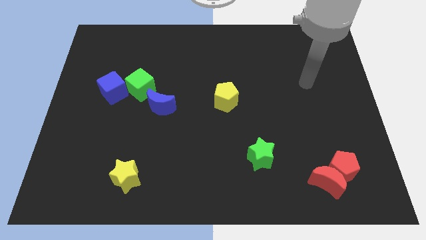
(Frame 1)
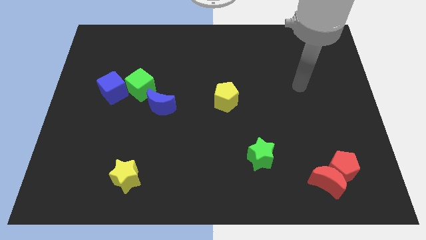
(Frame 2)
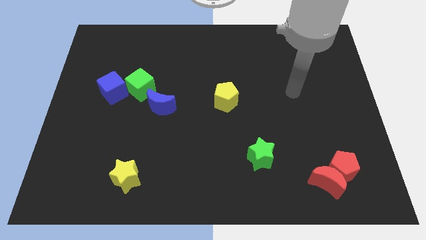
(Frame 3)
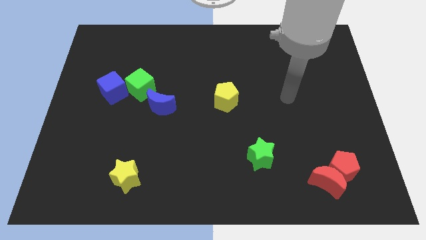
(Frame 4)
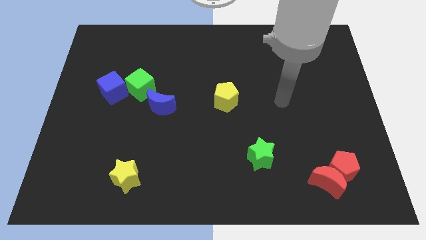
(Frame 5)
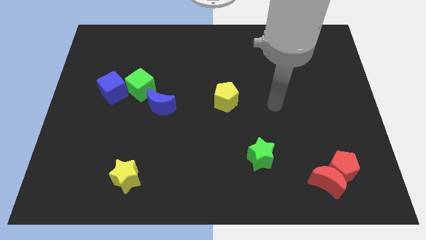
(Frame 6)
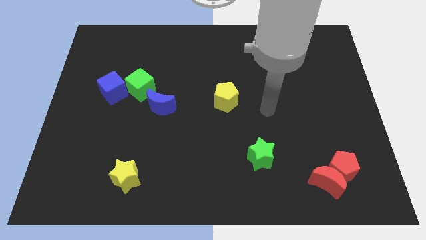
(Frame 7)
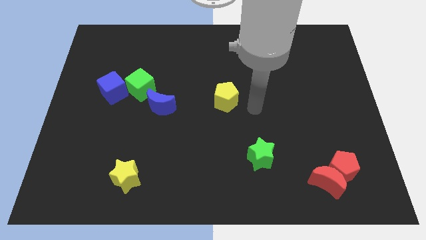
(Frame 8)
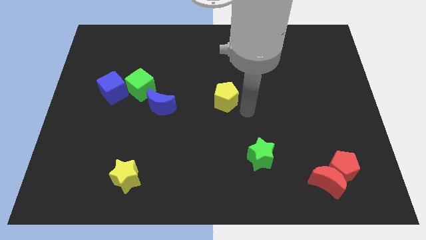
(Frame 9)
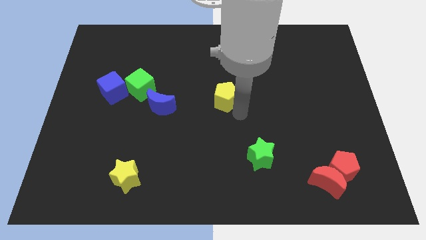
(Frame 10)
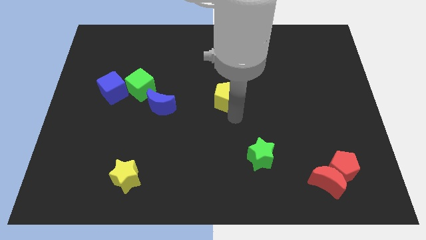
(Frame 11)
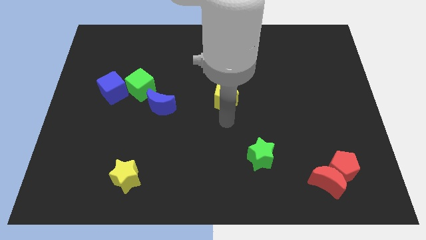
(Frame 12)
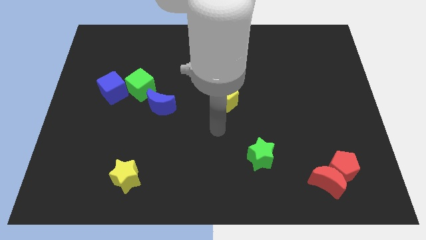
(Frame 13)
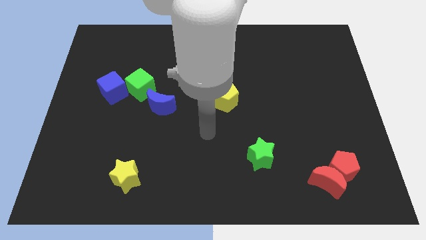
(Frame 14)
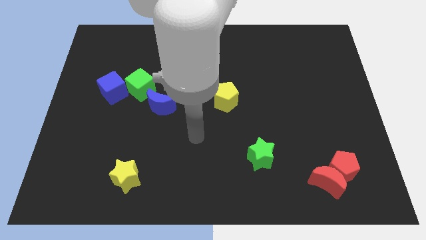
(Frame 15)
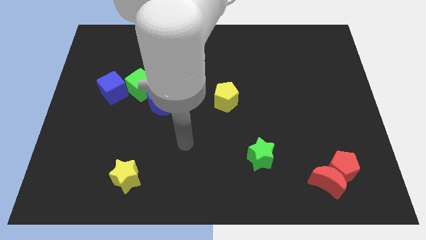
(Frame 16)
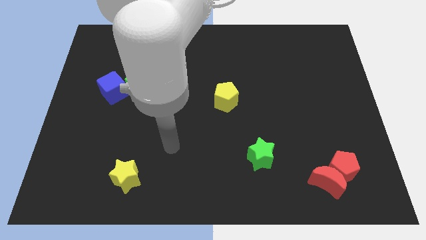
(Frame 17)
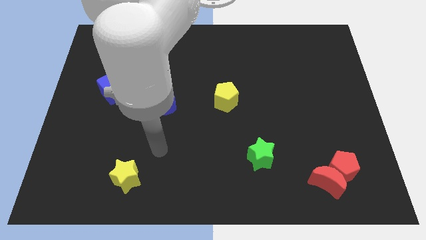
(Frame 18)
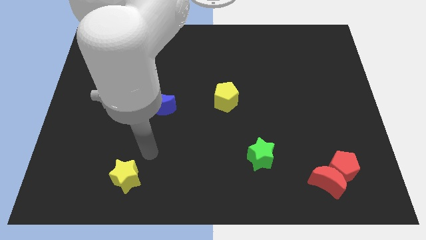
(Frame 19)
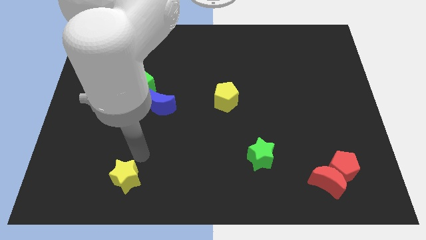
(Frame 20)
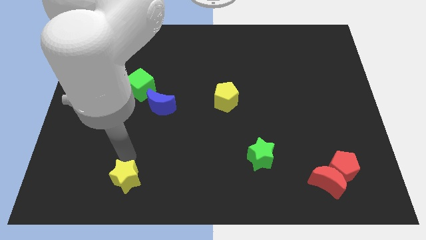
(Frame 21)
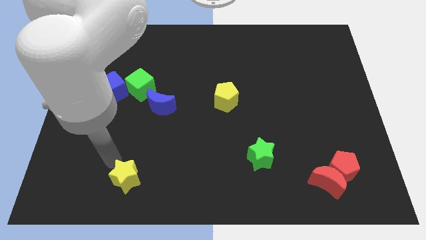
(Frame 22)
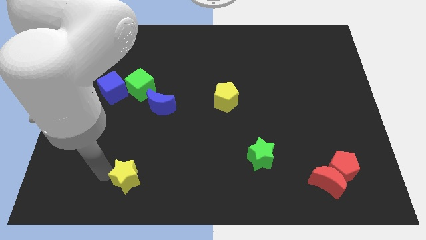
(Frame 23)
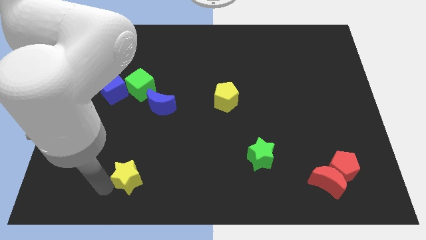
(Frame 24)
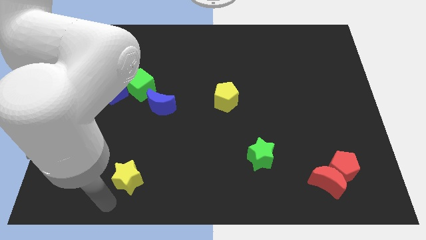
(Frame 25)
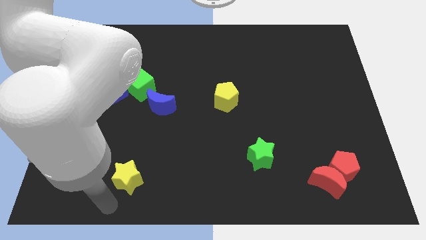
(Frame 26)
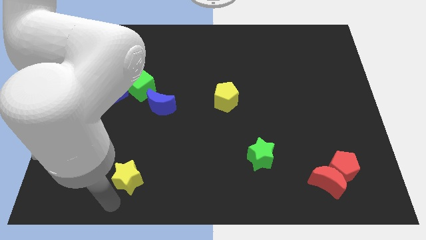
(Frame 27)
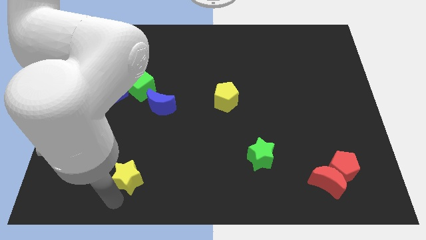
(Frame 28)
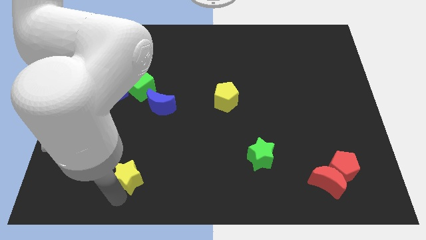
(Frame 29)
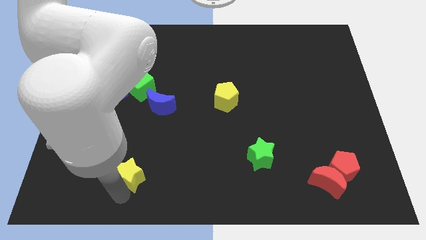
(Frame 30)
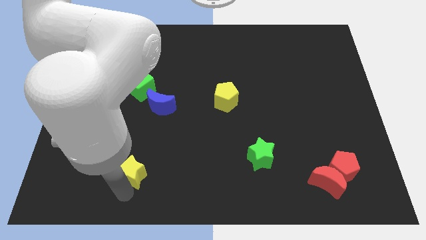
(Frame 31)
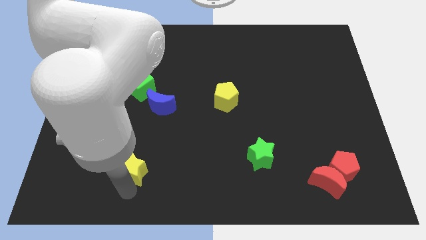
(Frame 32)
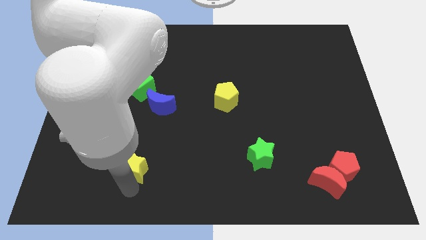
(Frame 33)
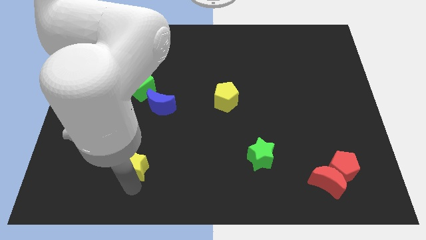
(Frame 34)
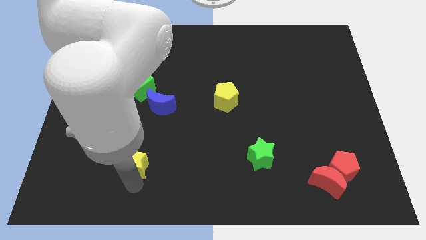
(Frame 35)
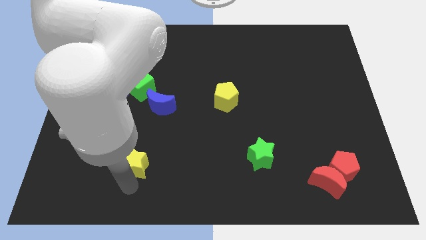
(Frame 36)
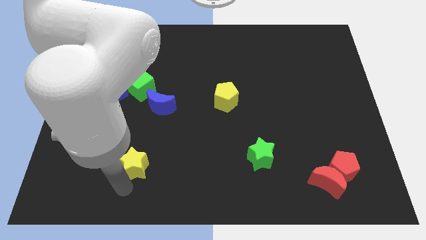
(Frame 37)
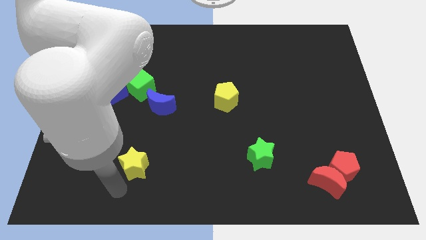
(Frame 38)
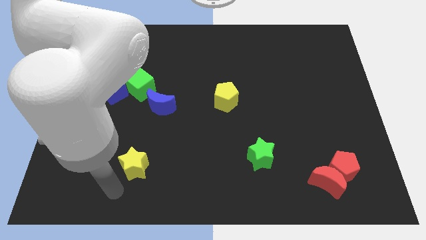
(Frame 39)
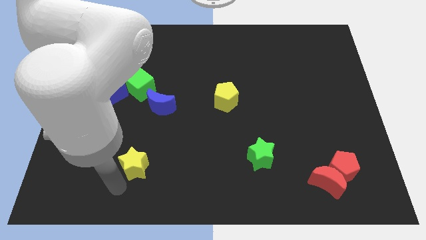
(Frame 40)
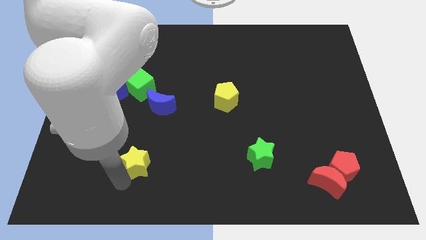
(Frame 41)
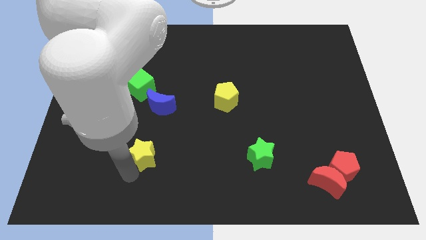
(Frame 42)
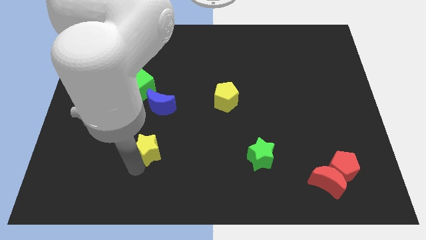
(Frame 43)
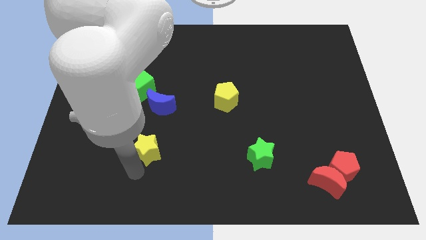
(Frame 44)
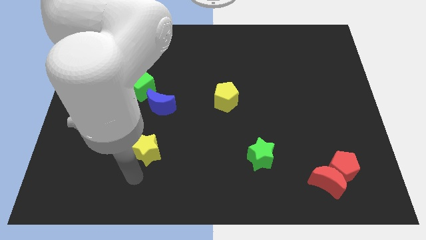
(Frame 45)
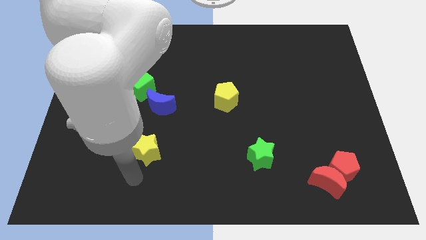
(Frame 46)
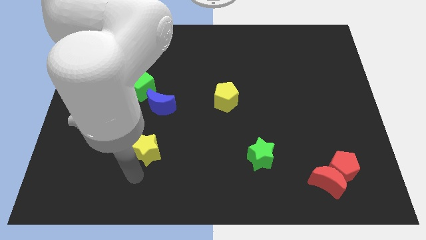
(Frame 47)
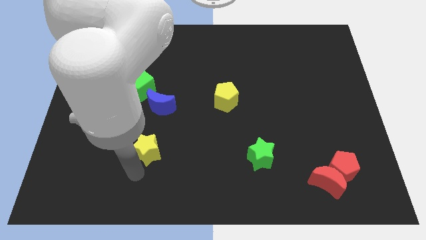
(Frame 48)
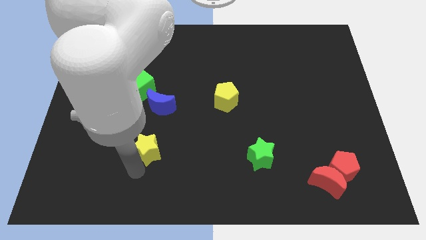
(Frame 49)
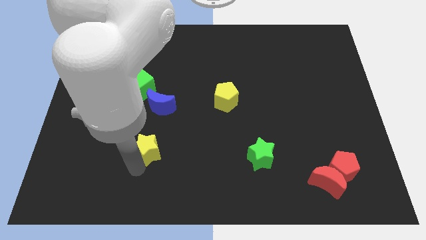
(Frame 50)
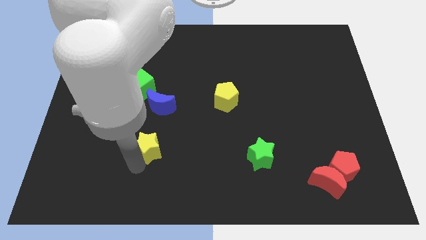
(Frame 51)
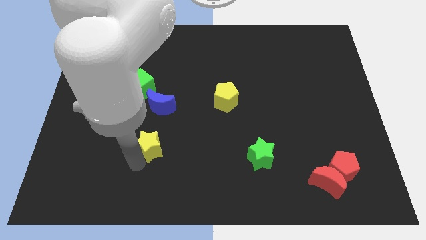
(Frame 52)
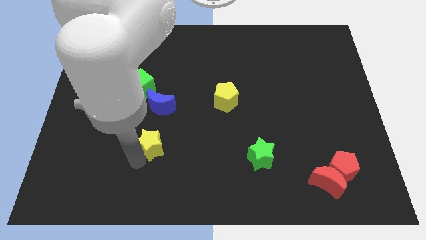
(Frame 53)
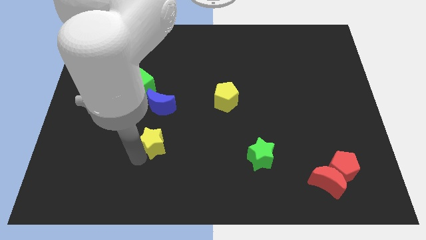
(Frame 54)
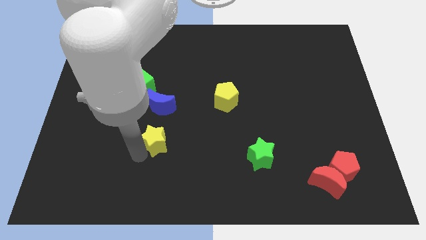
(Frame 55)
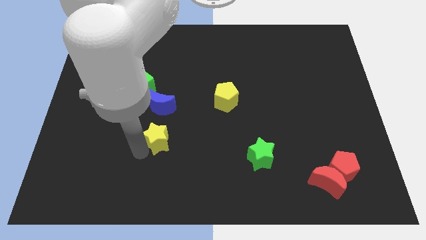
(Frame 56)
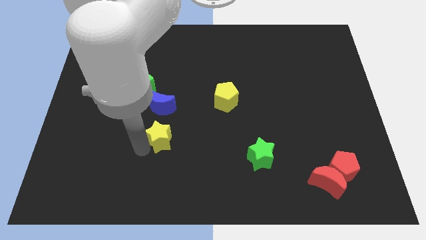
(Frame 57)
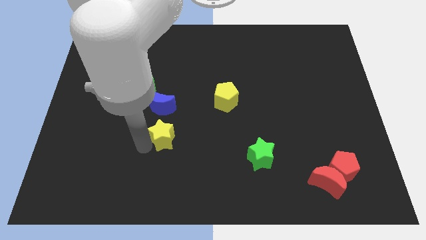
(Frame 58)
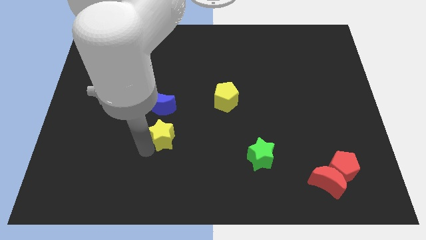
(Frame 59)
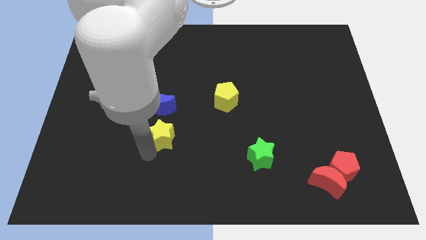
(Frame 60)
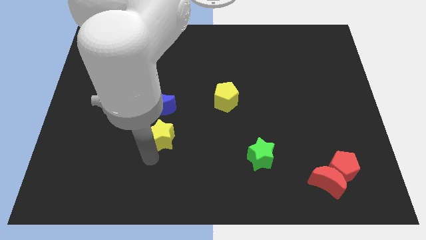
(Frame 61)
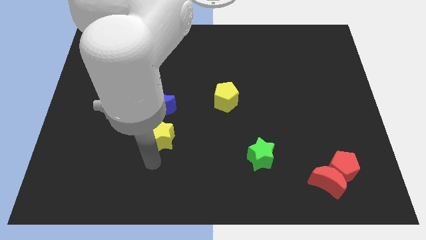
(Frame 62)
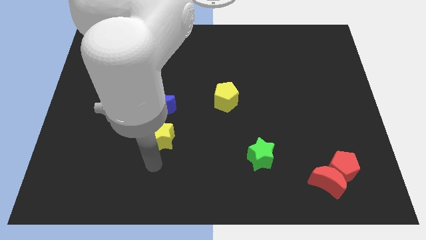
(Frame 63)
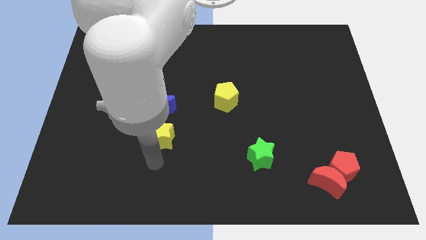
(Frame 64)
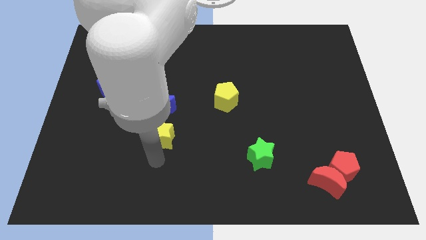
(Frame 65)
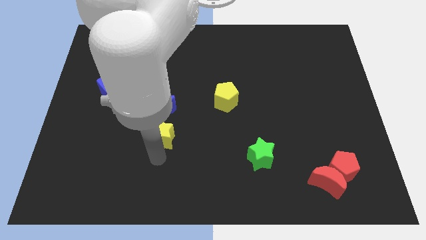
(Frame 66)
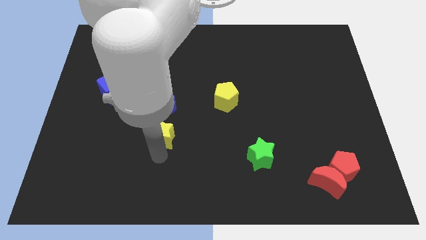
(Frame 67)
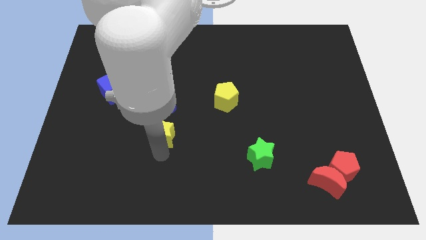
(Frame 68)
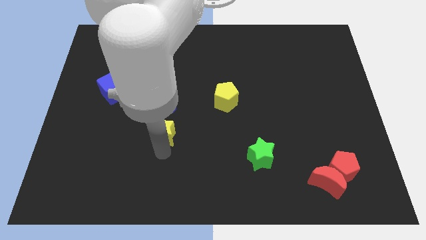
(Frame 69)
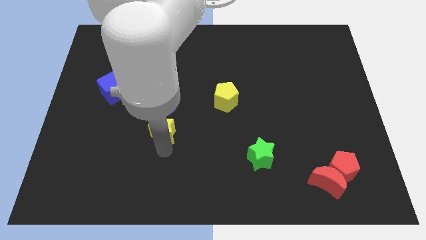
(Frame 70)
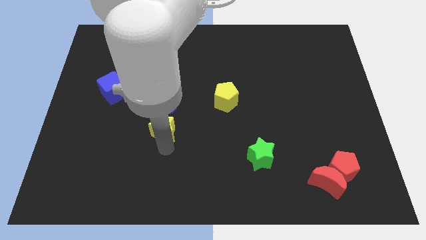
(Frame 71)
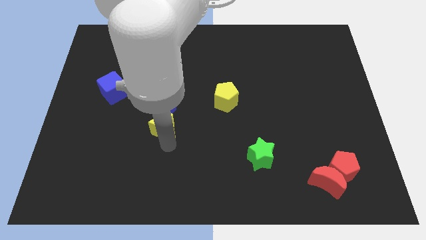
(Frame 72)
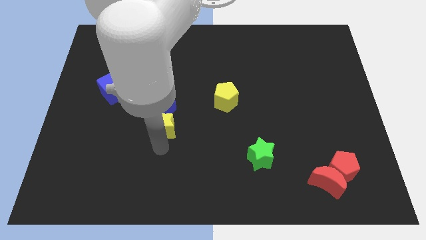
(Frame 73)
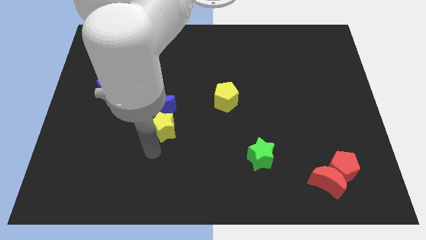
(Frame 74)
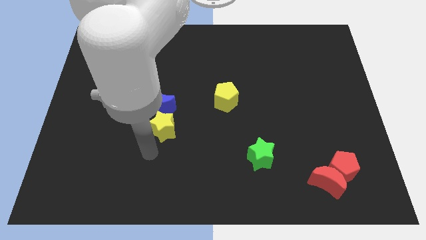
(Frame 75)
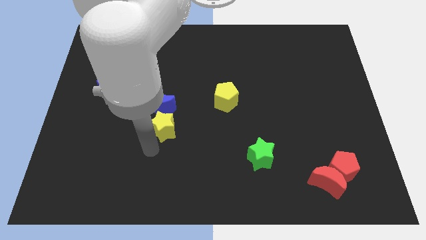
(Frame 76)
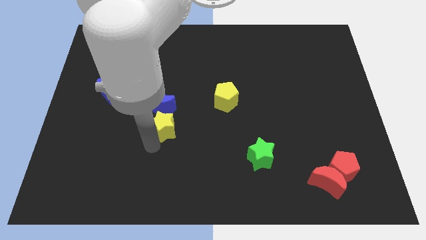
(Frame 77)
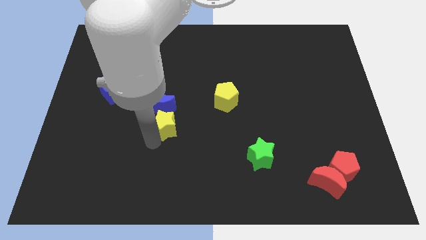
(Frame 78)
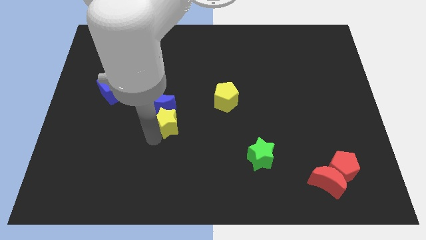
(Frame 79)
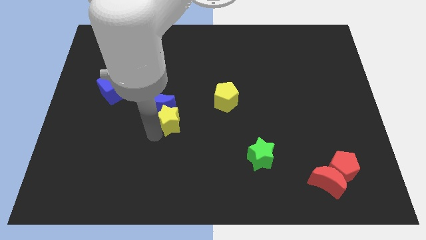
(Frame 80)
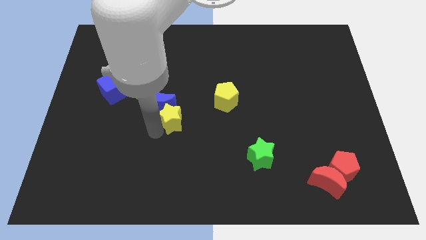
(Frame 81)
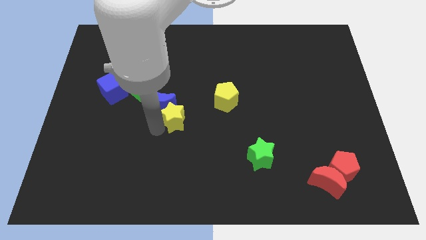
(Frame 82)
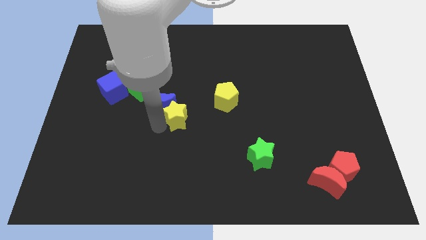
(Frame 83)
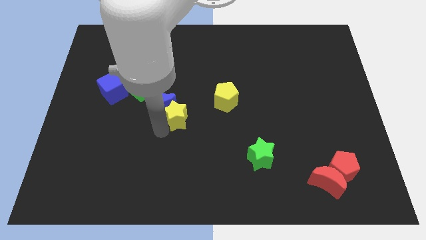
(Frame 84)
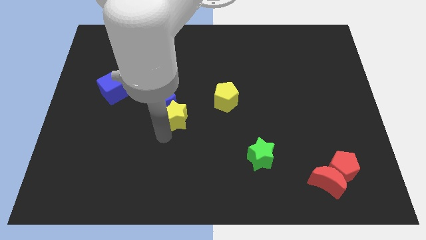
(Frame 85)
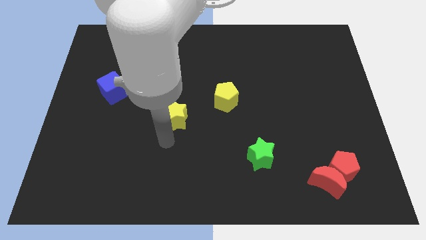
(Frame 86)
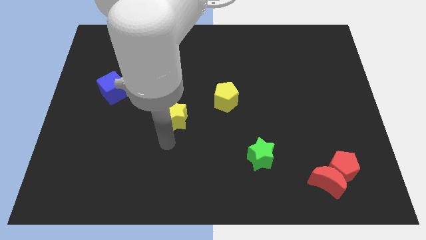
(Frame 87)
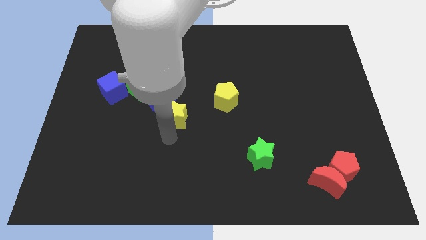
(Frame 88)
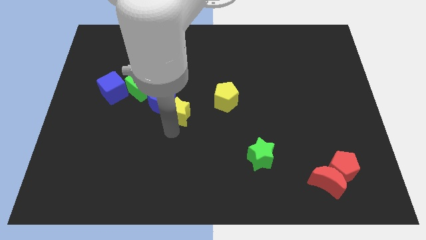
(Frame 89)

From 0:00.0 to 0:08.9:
move the yellow star just left of the yellow pentagon
